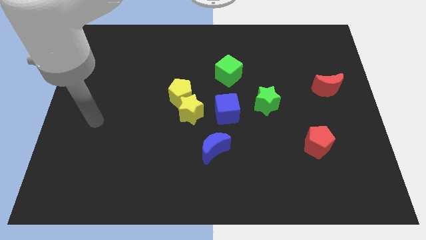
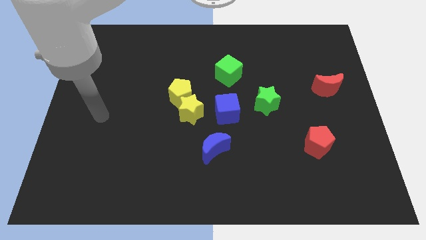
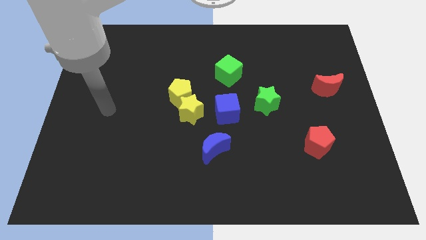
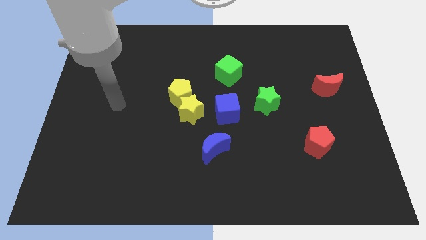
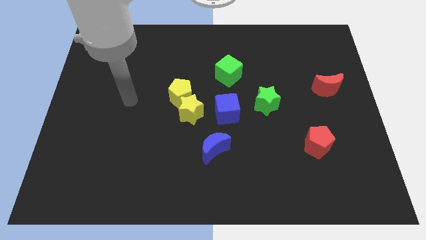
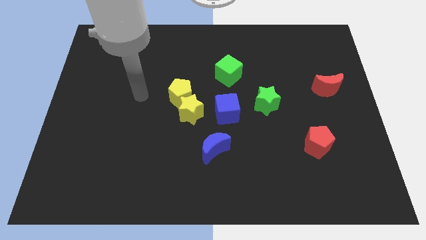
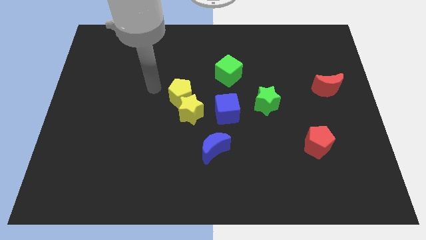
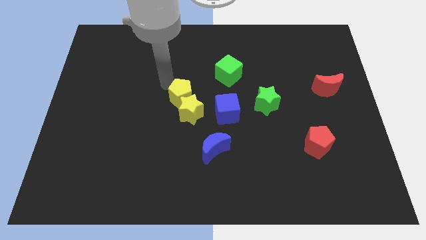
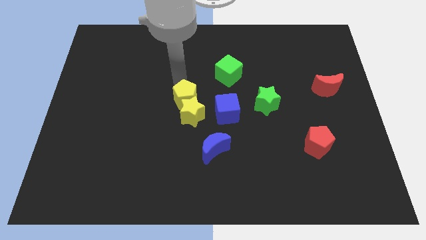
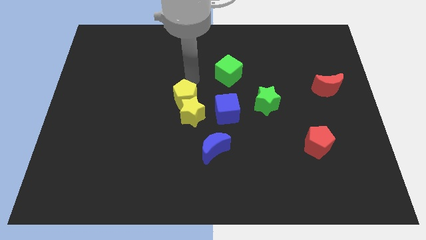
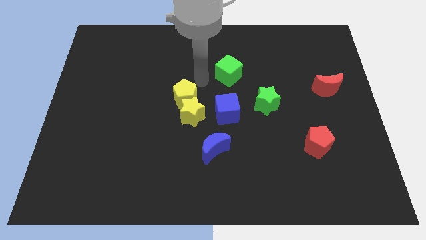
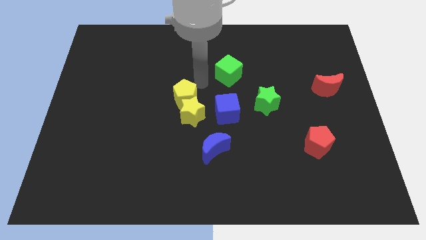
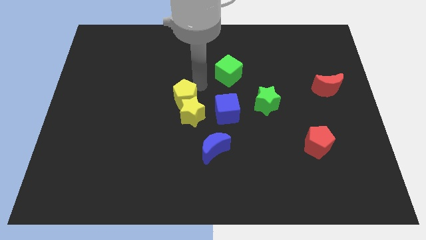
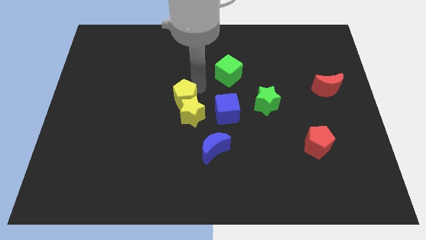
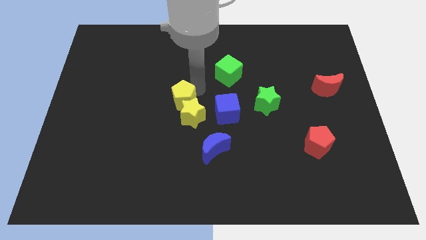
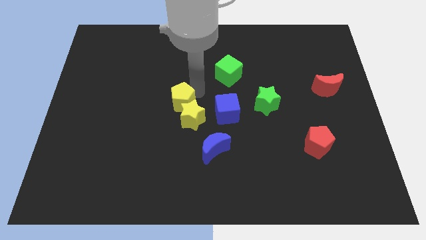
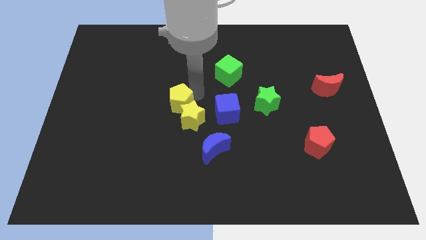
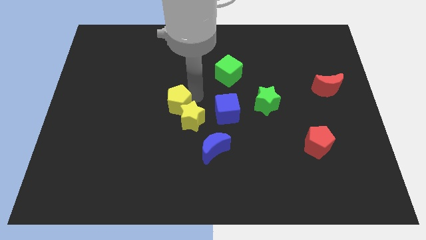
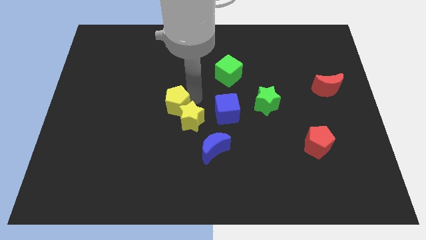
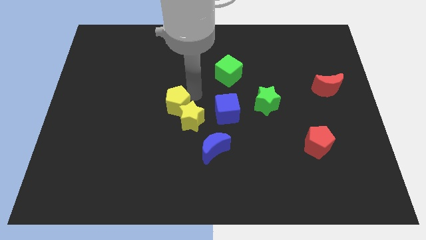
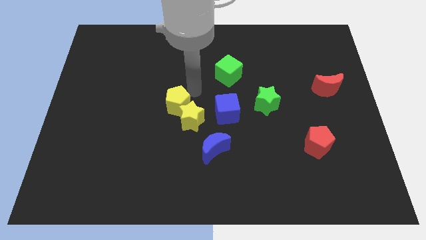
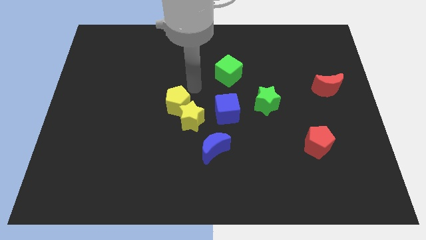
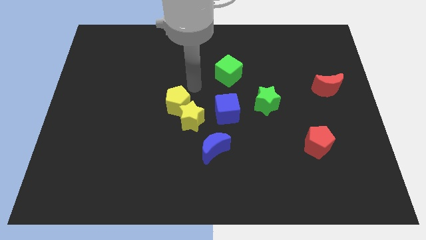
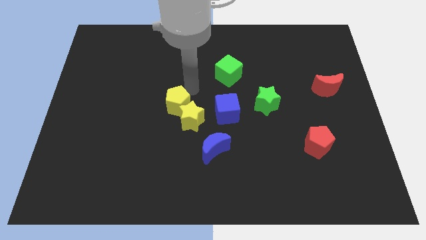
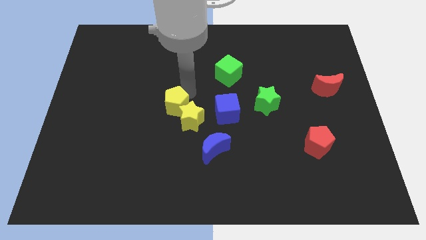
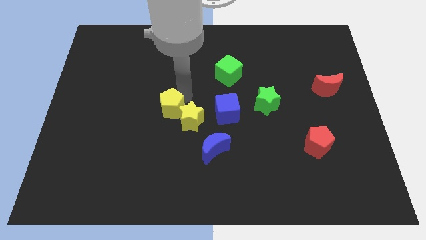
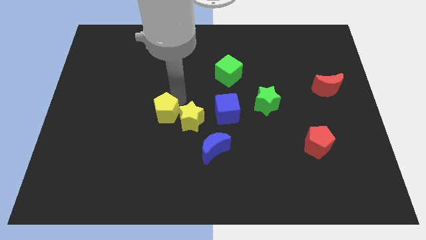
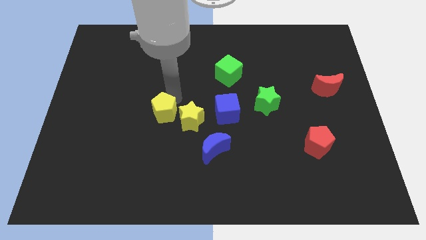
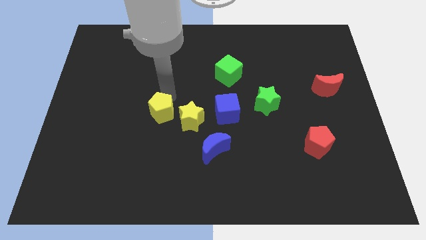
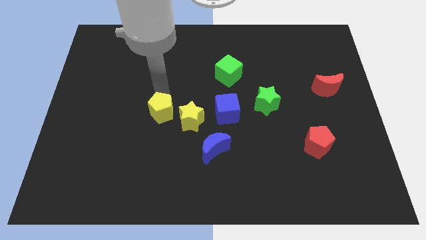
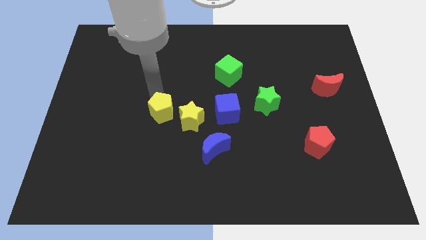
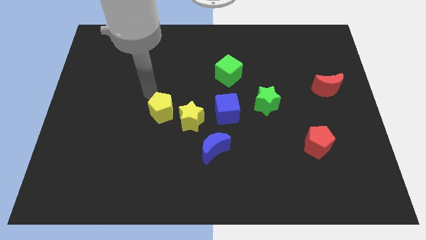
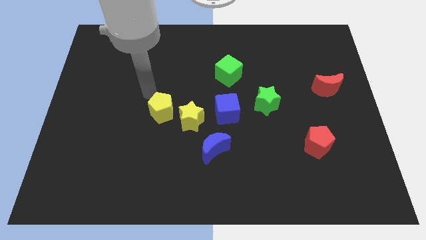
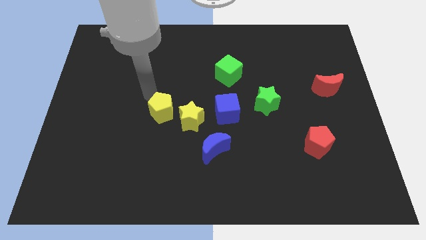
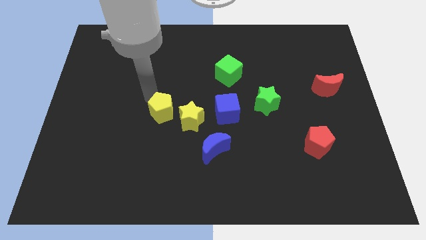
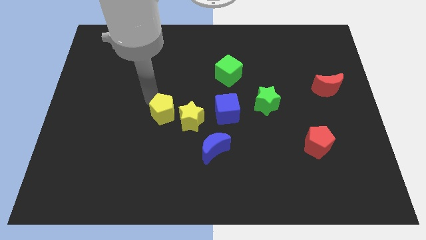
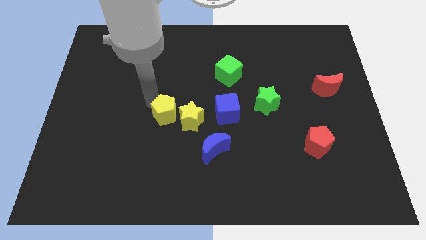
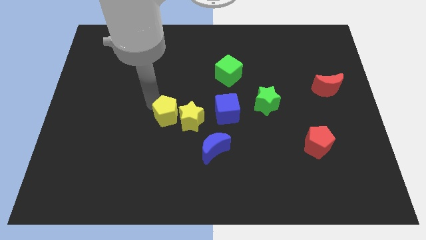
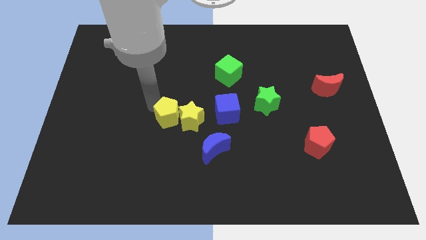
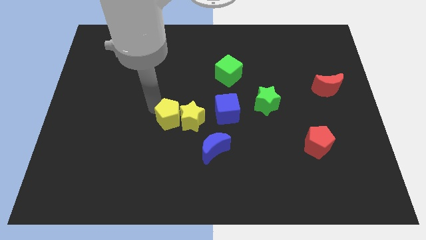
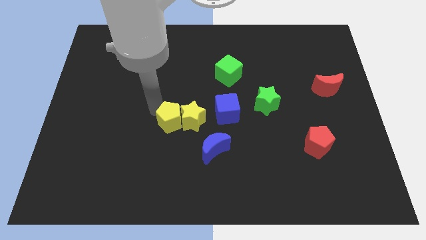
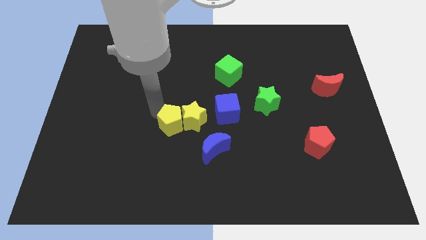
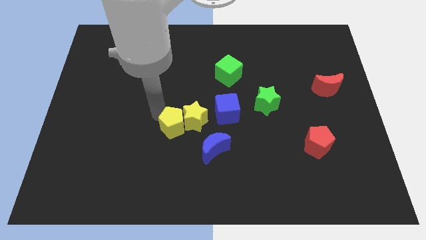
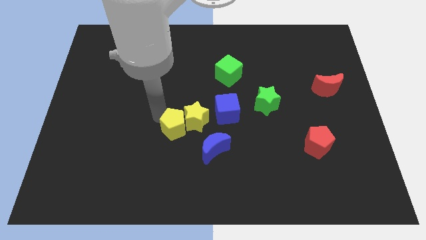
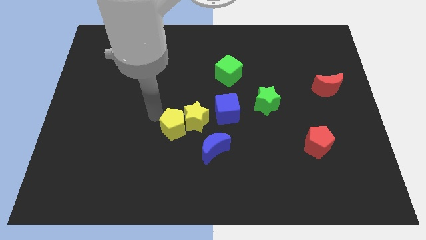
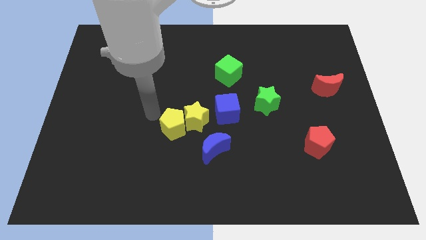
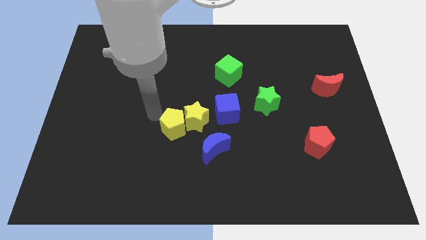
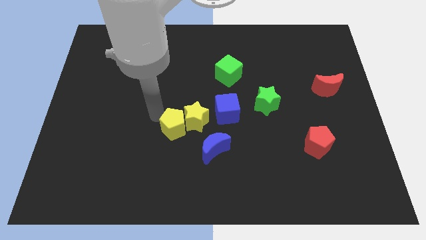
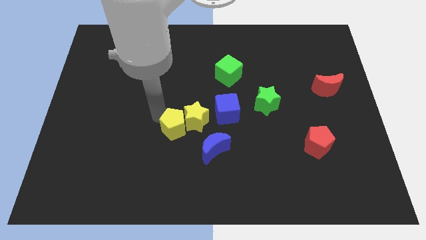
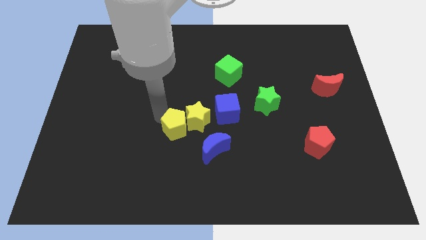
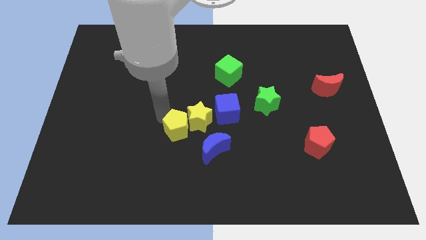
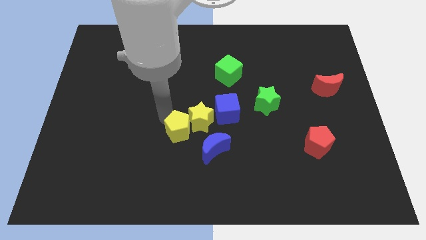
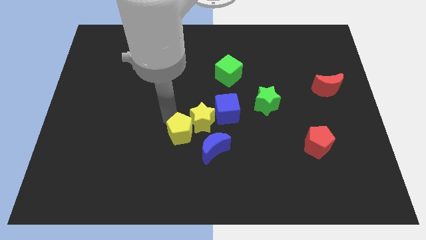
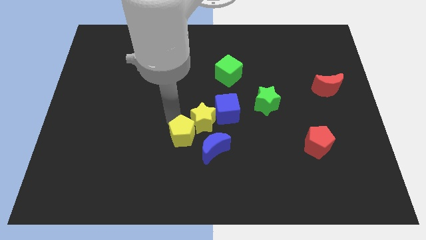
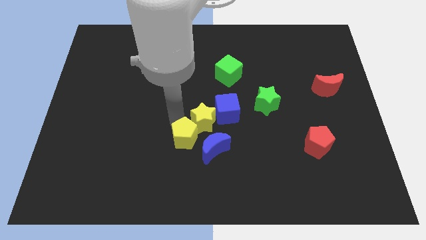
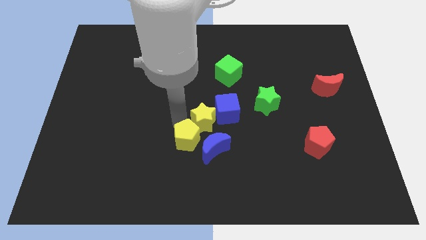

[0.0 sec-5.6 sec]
push the yellow pentagon towards the blue moon
